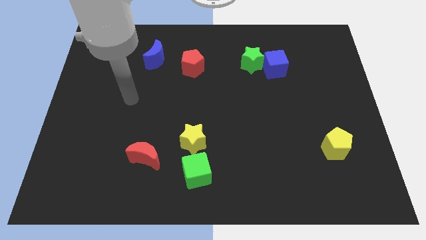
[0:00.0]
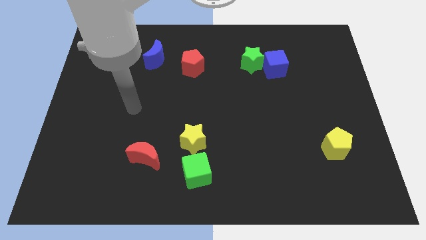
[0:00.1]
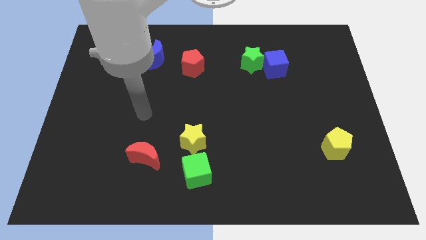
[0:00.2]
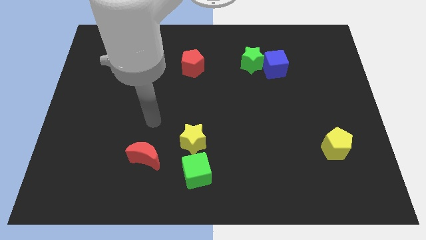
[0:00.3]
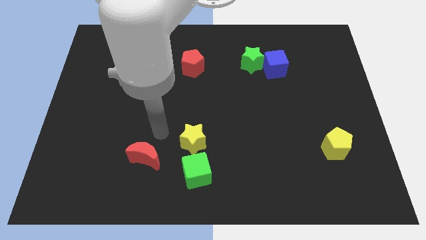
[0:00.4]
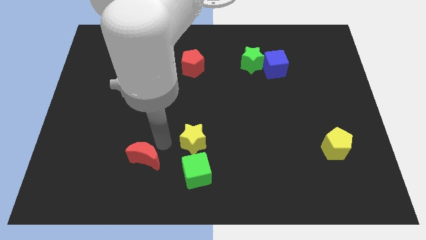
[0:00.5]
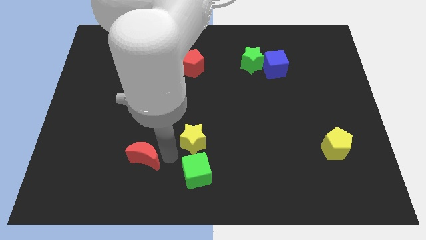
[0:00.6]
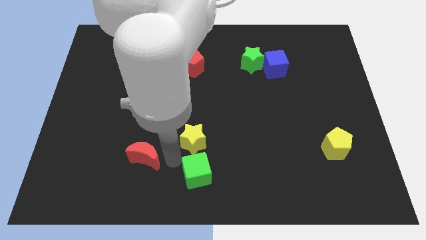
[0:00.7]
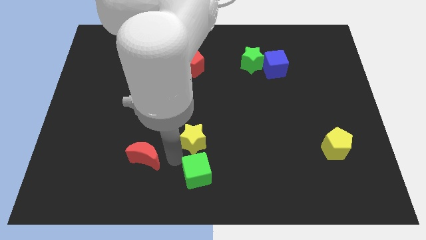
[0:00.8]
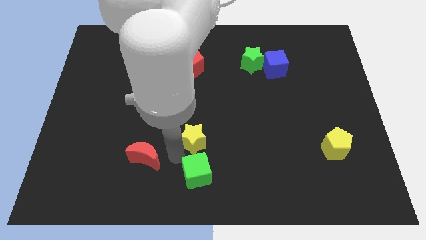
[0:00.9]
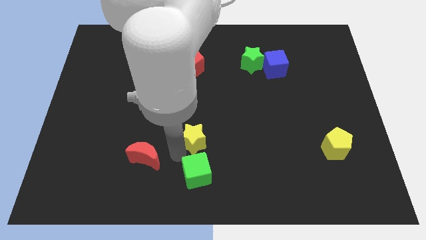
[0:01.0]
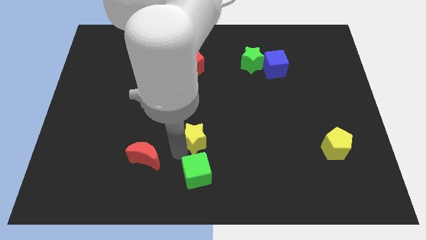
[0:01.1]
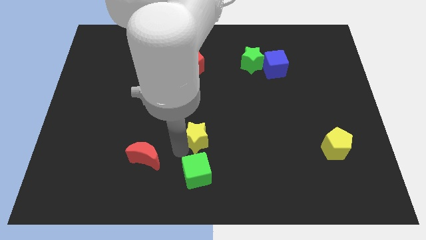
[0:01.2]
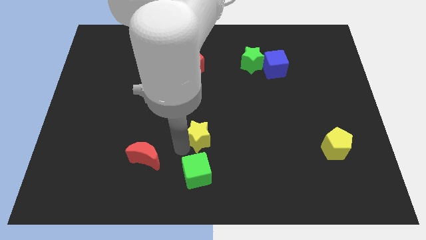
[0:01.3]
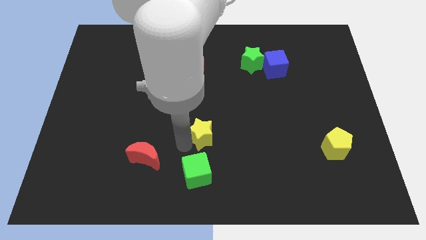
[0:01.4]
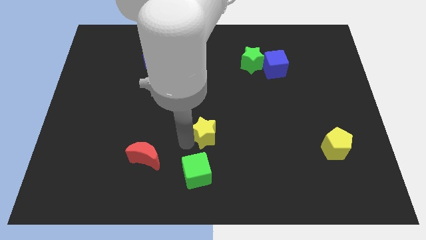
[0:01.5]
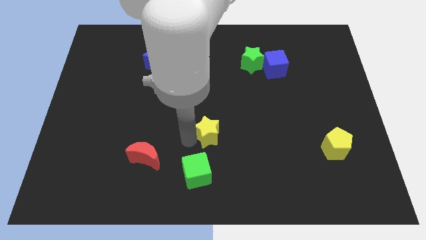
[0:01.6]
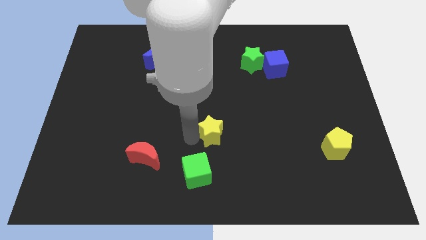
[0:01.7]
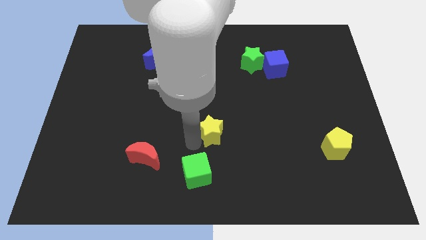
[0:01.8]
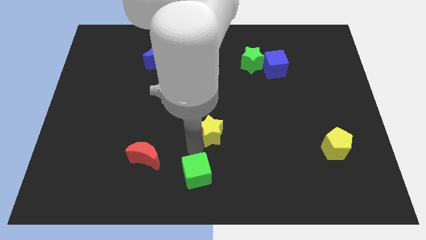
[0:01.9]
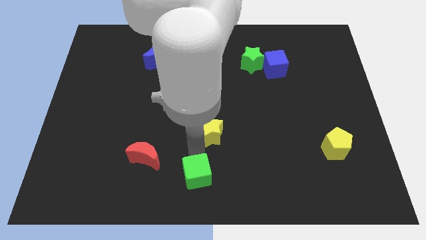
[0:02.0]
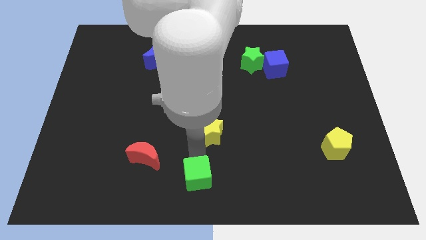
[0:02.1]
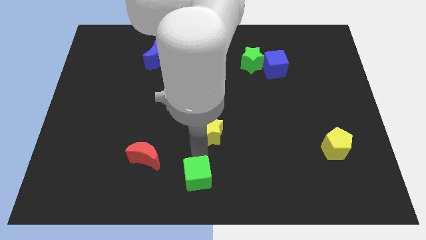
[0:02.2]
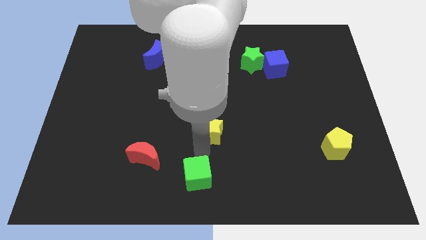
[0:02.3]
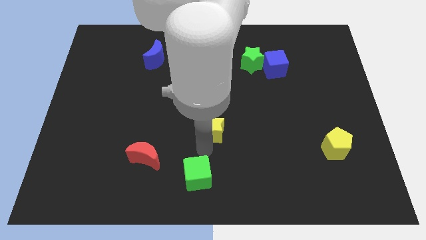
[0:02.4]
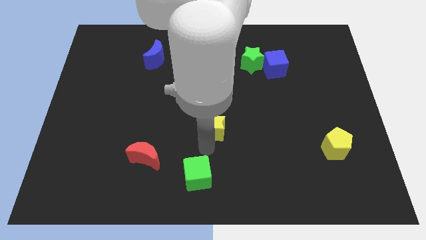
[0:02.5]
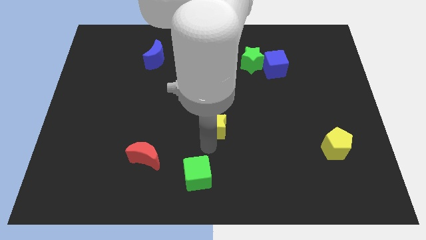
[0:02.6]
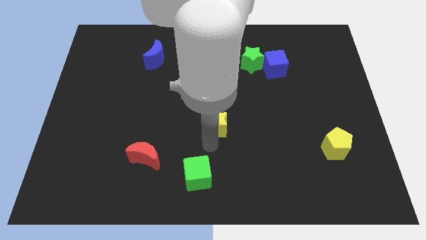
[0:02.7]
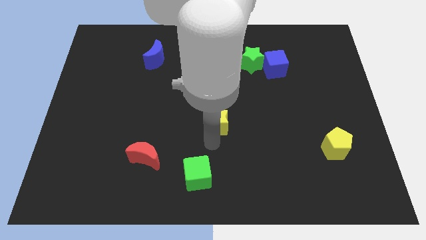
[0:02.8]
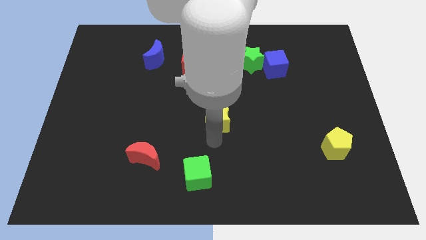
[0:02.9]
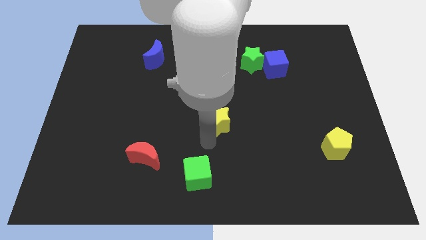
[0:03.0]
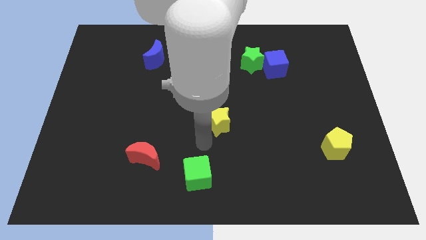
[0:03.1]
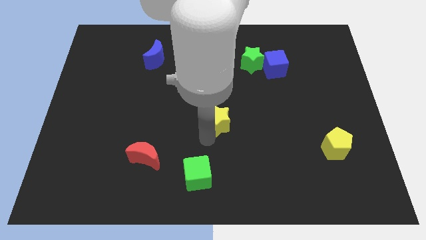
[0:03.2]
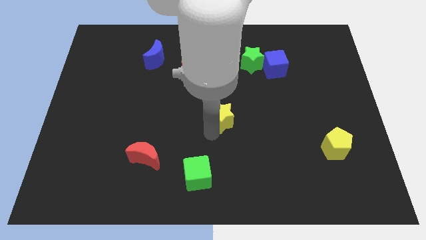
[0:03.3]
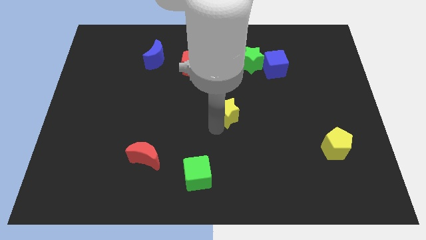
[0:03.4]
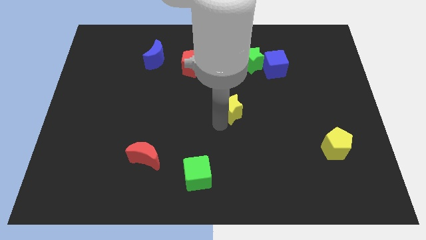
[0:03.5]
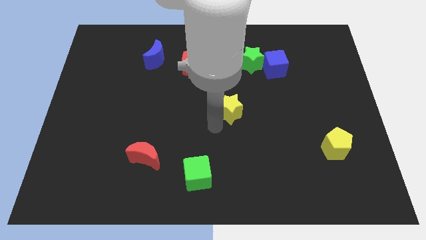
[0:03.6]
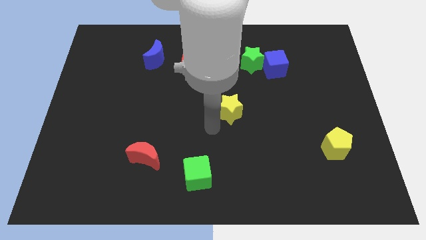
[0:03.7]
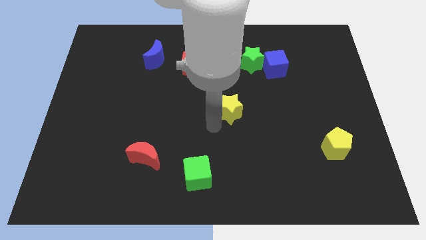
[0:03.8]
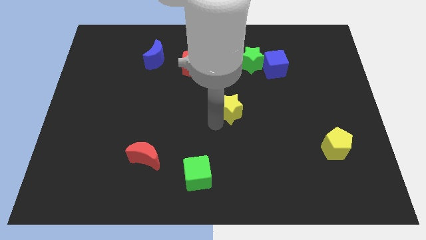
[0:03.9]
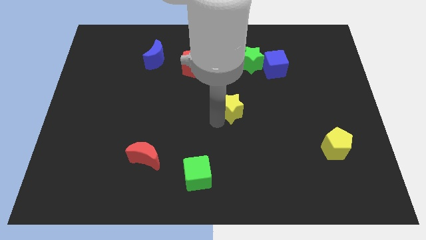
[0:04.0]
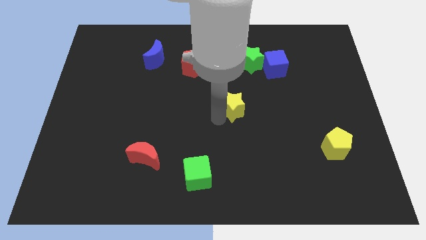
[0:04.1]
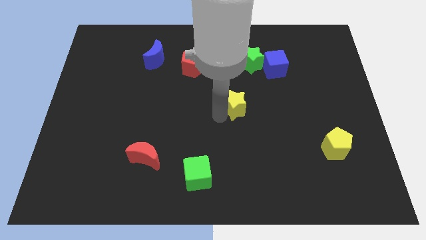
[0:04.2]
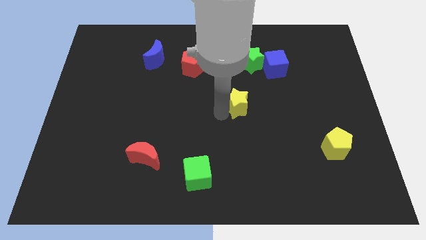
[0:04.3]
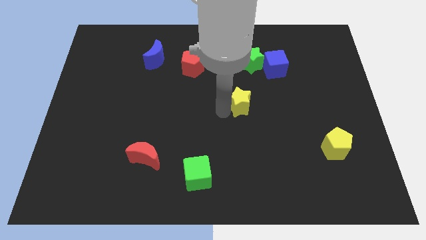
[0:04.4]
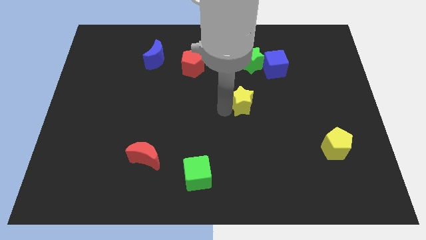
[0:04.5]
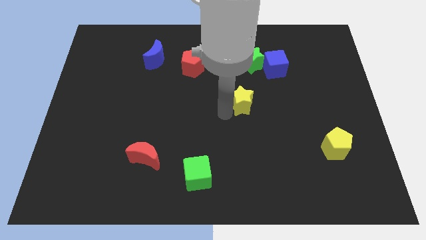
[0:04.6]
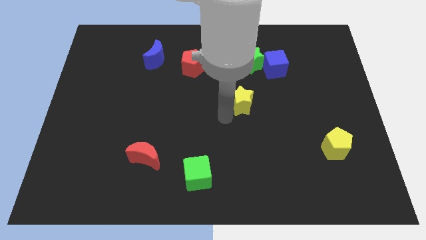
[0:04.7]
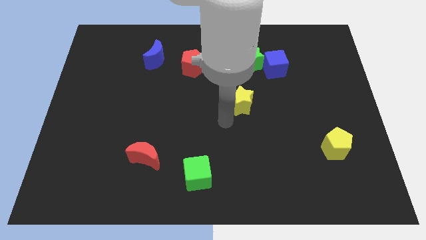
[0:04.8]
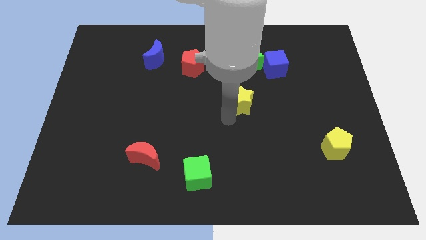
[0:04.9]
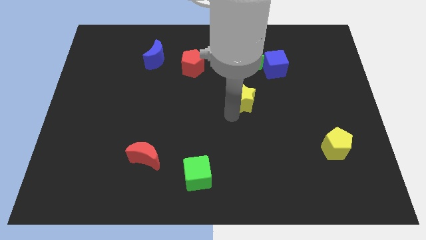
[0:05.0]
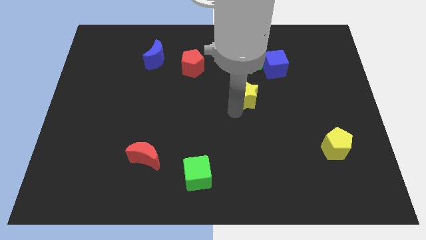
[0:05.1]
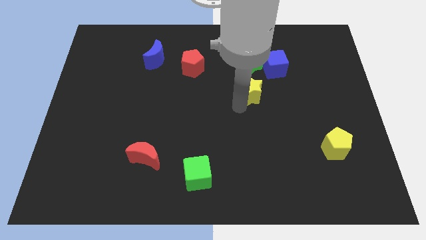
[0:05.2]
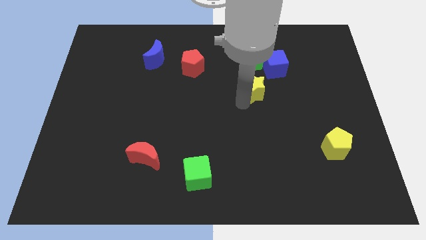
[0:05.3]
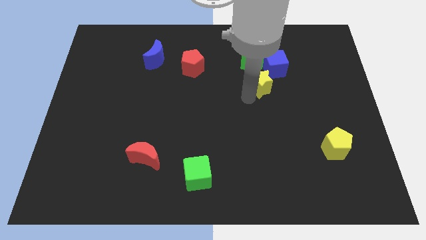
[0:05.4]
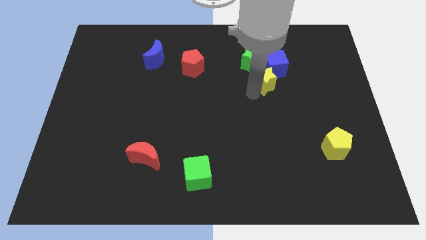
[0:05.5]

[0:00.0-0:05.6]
slide the yellow star to the blue cube

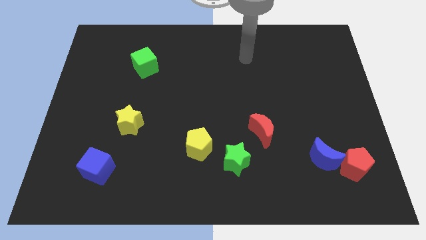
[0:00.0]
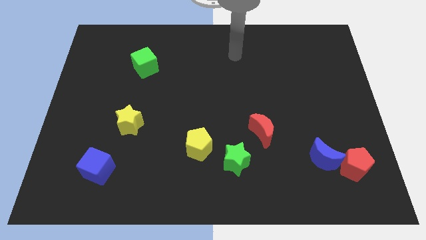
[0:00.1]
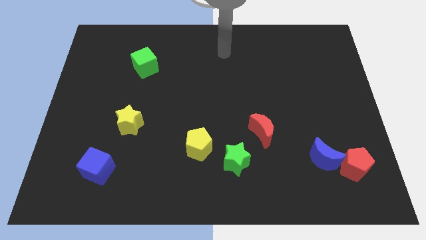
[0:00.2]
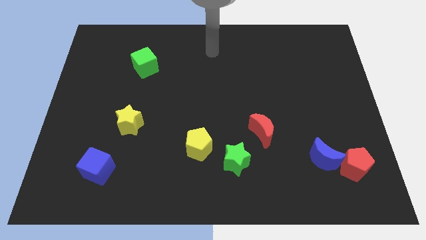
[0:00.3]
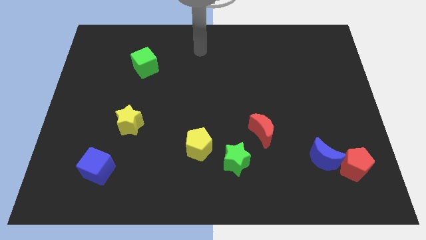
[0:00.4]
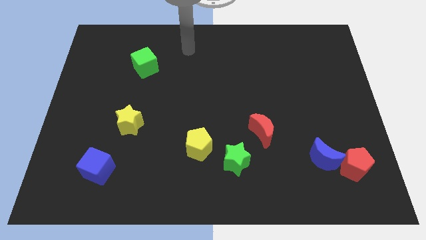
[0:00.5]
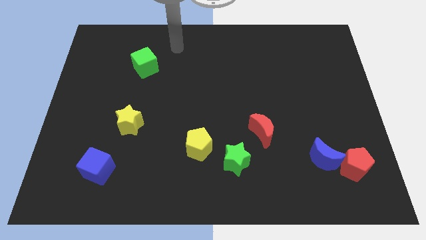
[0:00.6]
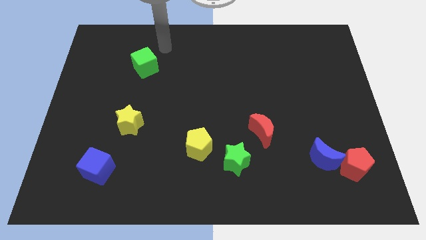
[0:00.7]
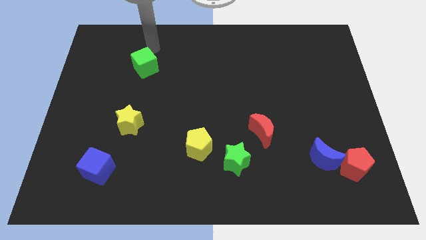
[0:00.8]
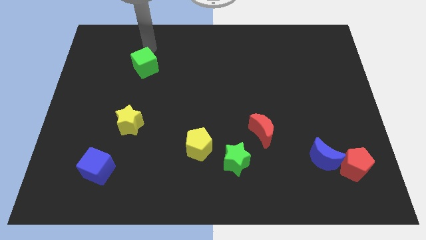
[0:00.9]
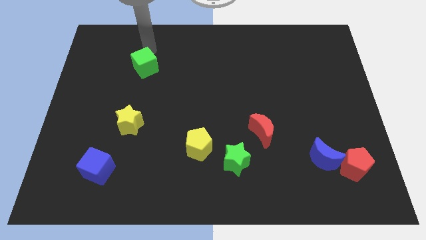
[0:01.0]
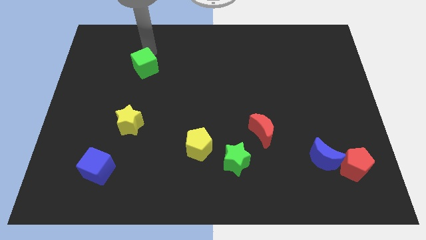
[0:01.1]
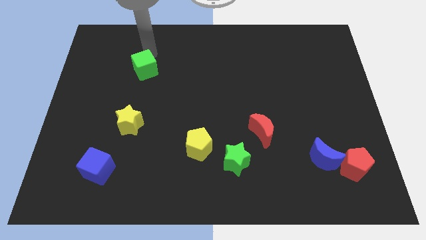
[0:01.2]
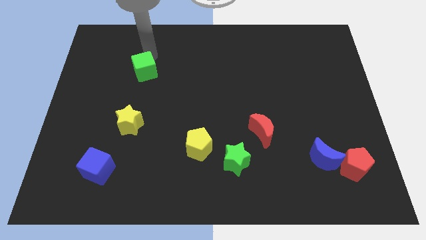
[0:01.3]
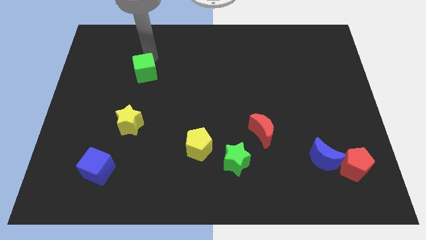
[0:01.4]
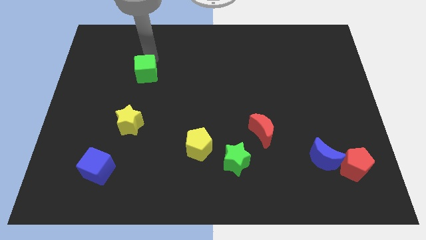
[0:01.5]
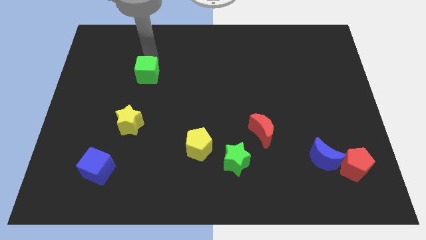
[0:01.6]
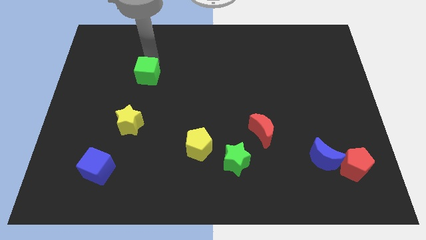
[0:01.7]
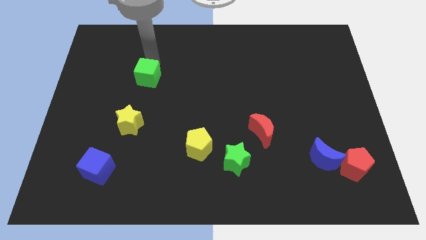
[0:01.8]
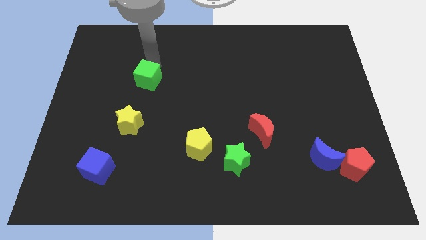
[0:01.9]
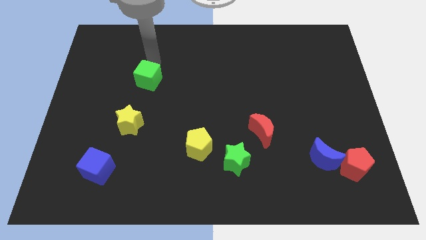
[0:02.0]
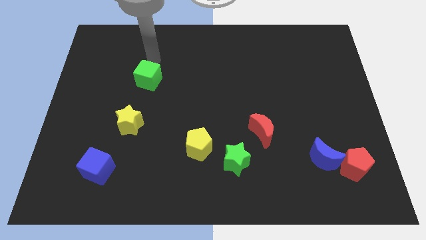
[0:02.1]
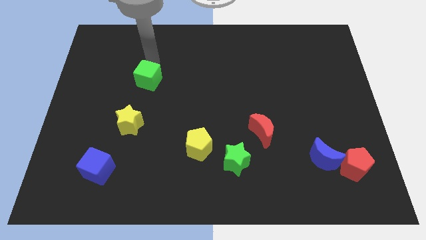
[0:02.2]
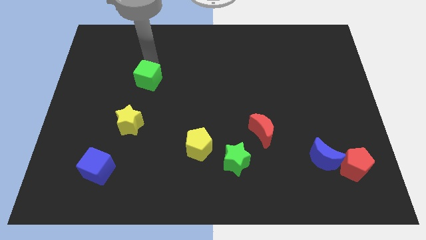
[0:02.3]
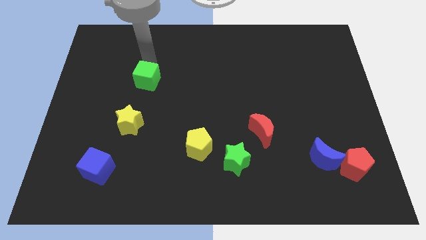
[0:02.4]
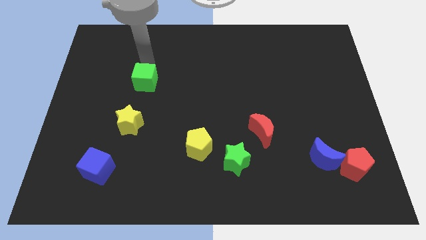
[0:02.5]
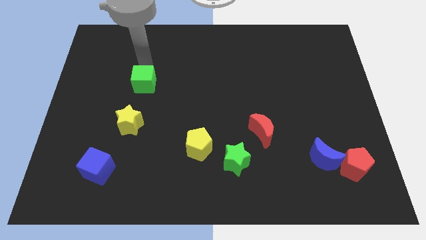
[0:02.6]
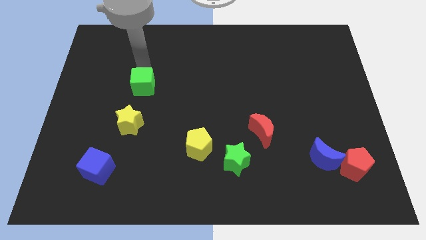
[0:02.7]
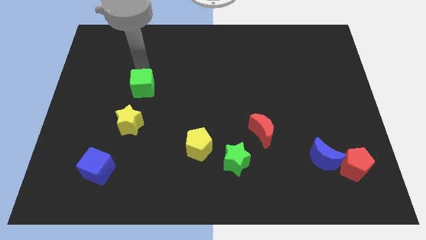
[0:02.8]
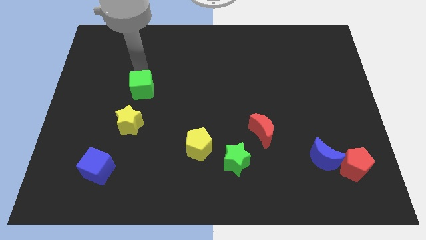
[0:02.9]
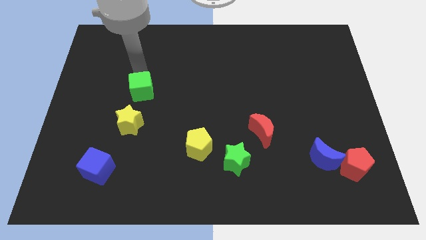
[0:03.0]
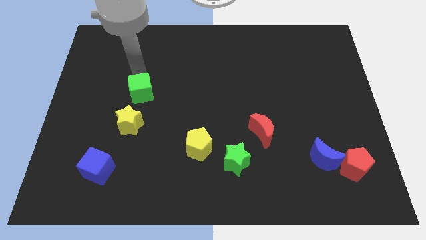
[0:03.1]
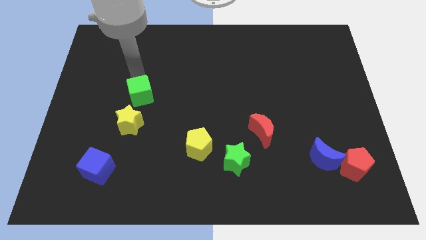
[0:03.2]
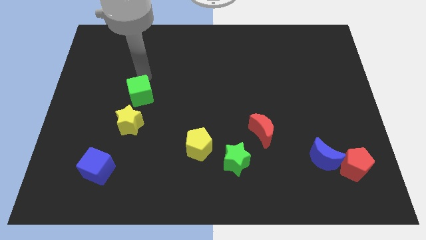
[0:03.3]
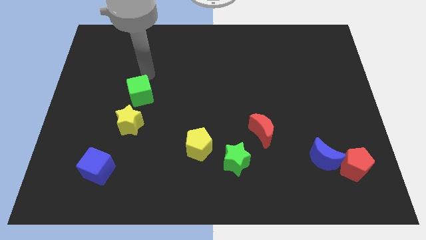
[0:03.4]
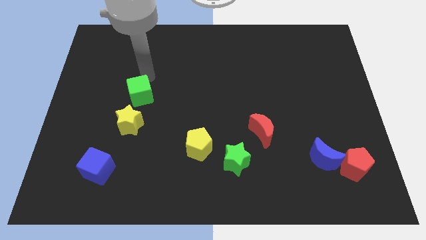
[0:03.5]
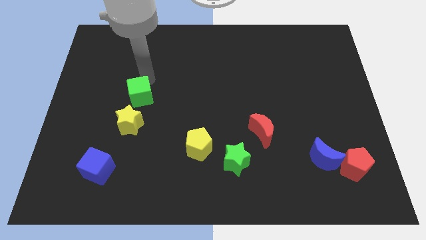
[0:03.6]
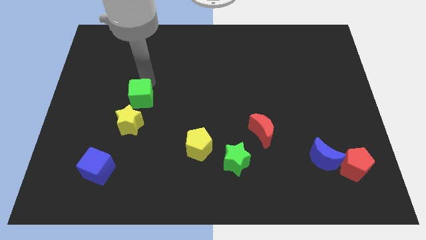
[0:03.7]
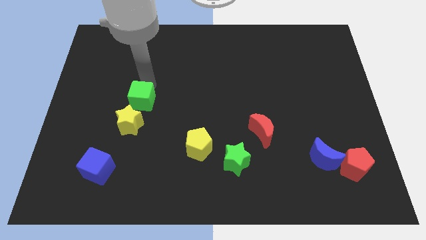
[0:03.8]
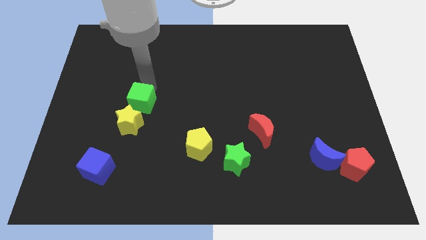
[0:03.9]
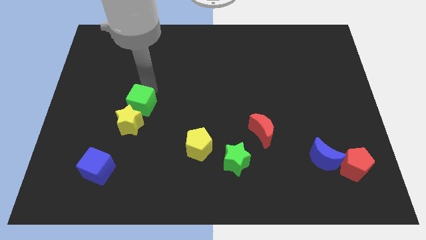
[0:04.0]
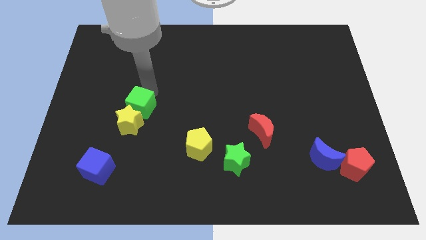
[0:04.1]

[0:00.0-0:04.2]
slide the green cube to the yellow star
